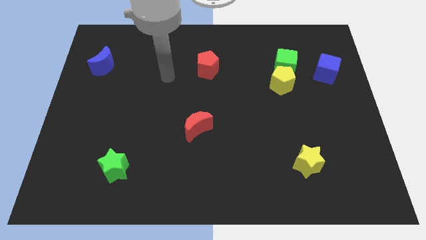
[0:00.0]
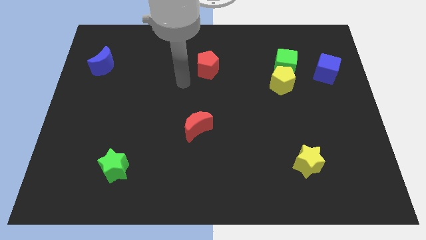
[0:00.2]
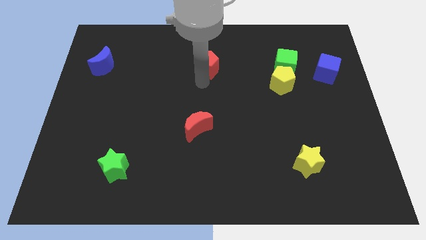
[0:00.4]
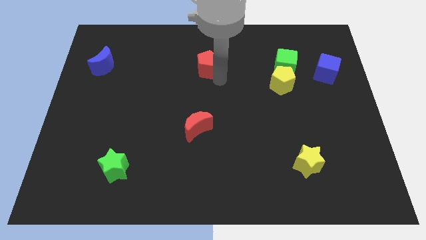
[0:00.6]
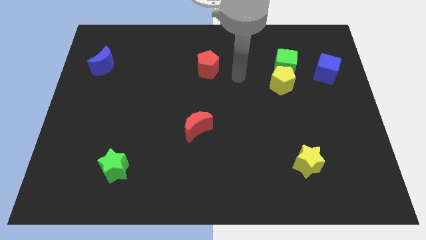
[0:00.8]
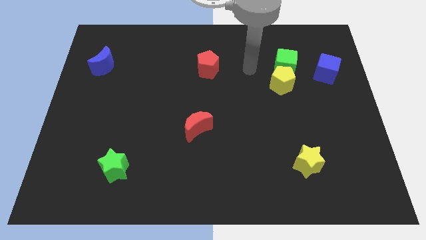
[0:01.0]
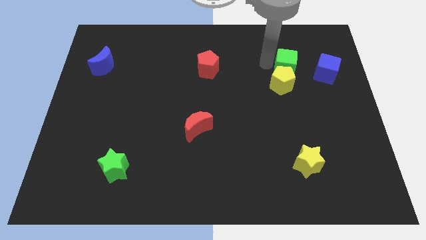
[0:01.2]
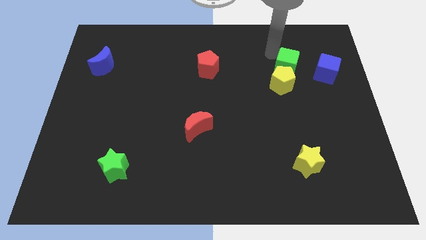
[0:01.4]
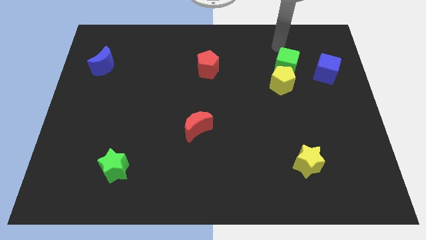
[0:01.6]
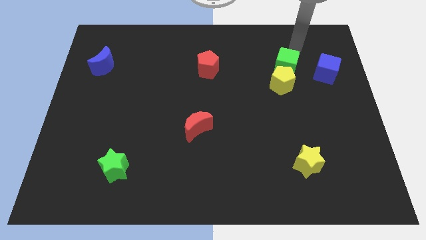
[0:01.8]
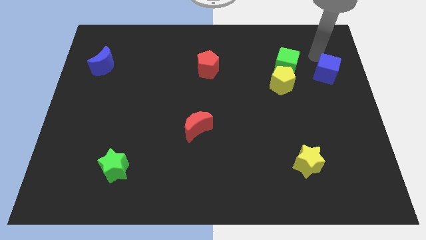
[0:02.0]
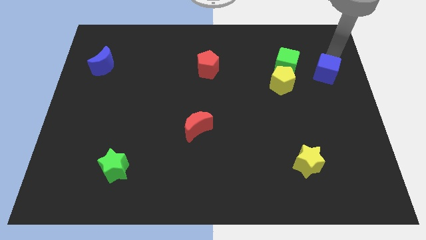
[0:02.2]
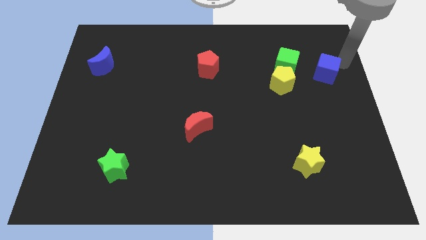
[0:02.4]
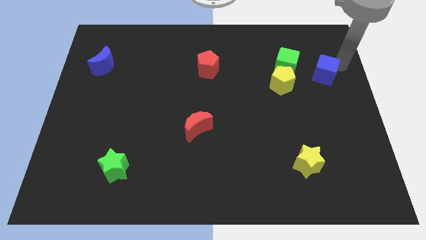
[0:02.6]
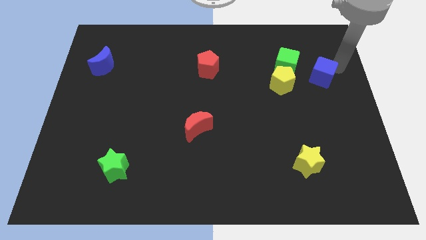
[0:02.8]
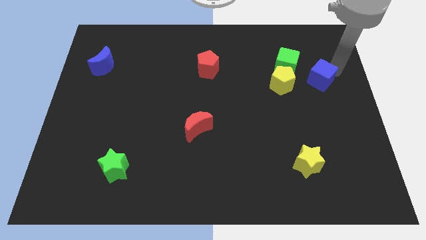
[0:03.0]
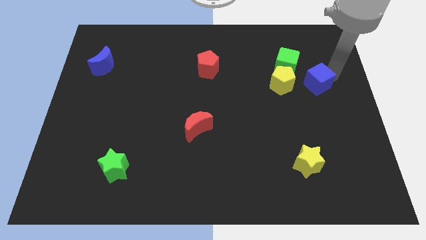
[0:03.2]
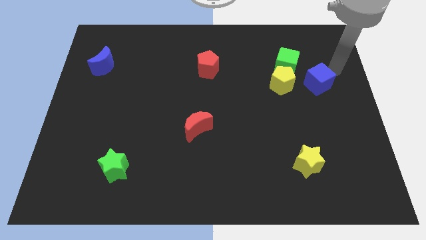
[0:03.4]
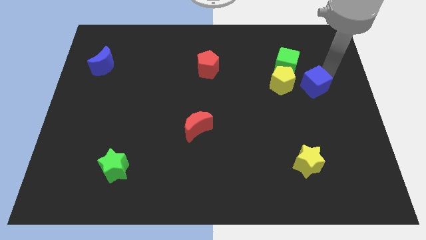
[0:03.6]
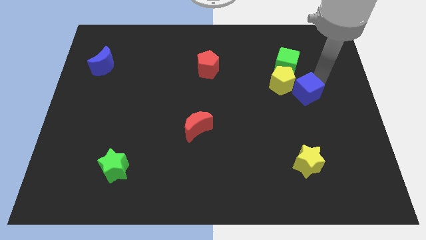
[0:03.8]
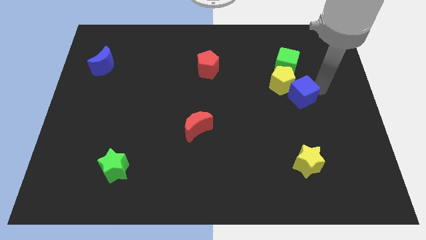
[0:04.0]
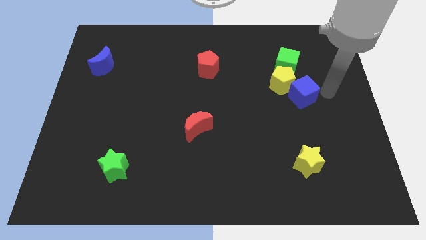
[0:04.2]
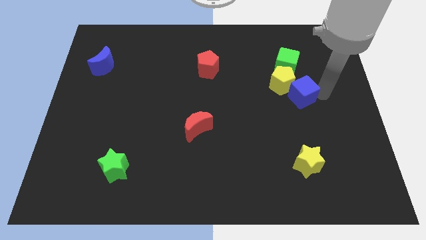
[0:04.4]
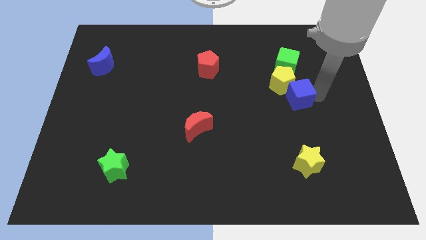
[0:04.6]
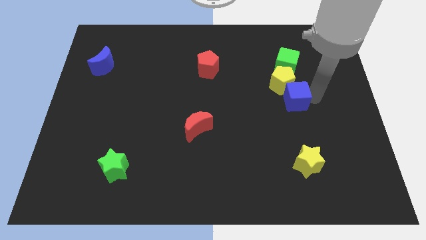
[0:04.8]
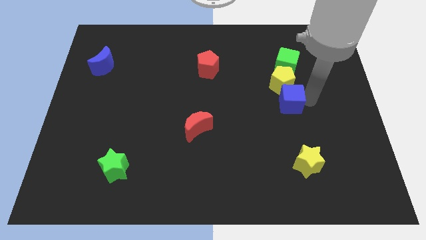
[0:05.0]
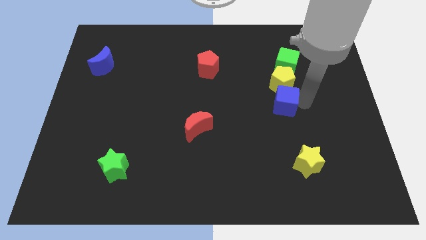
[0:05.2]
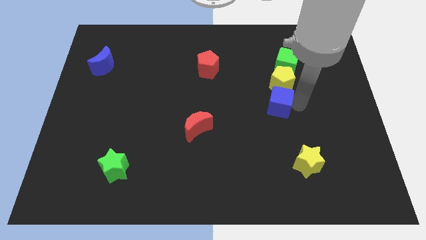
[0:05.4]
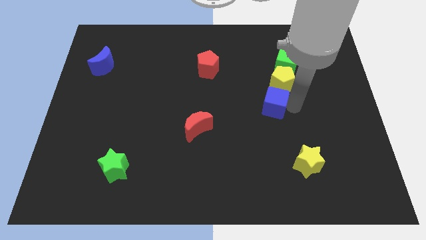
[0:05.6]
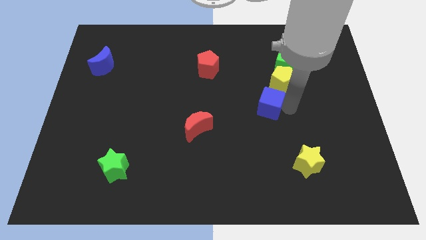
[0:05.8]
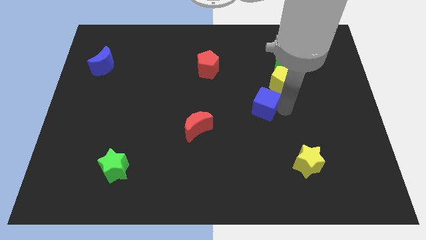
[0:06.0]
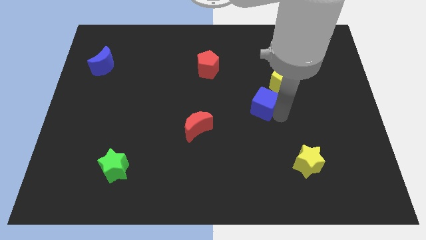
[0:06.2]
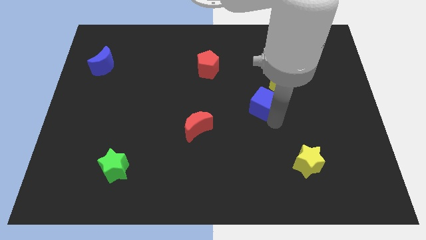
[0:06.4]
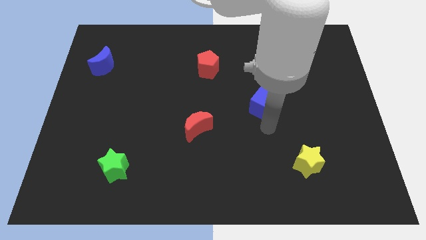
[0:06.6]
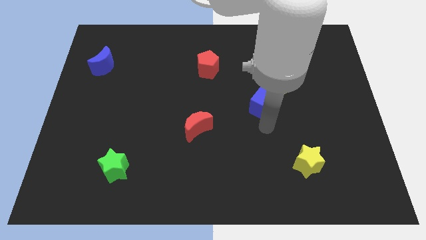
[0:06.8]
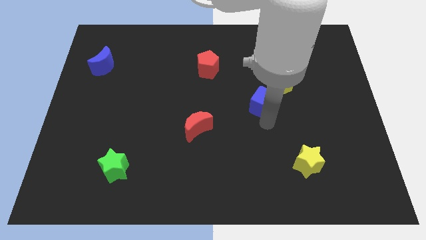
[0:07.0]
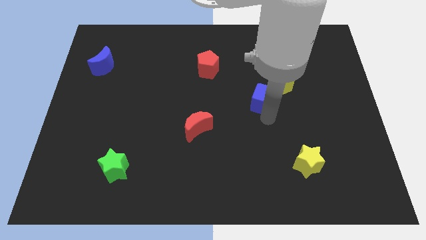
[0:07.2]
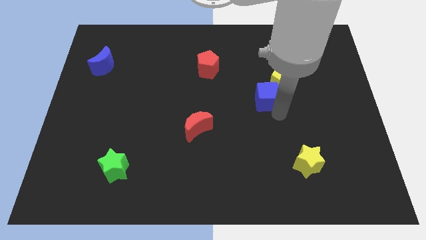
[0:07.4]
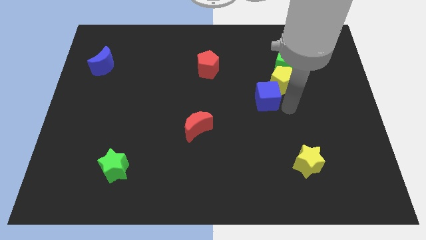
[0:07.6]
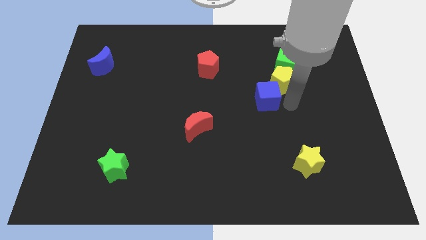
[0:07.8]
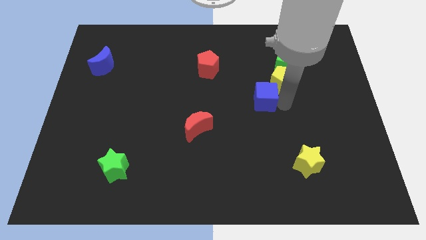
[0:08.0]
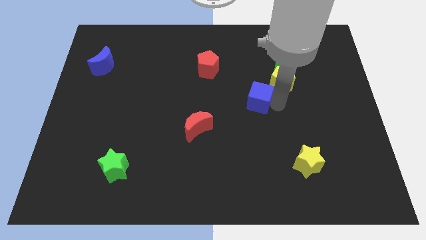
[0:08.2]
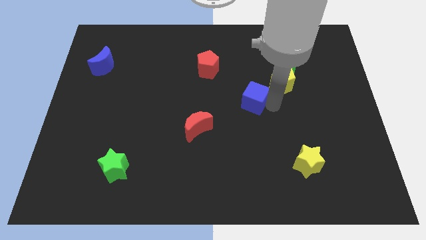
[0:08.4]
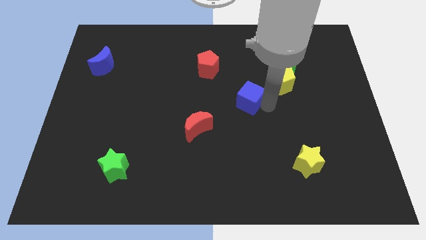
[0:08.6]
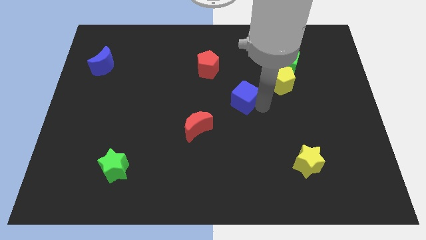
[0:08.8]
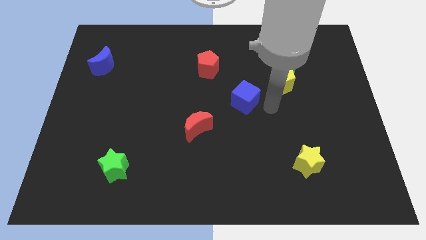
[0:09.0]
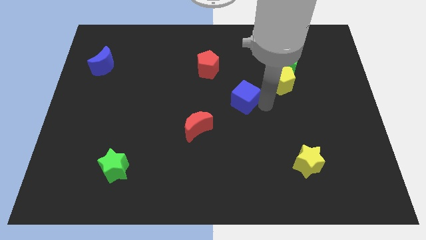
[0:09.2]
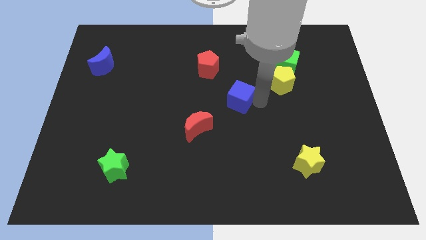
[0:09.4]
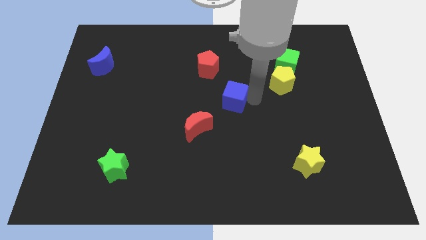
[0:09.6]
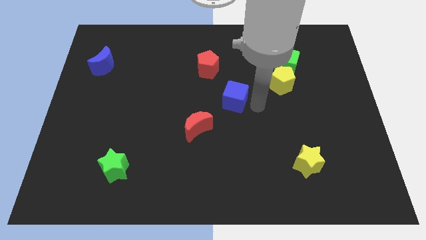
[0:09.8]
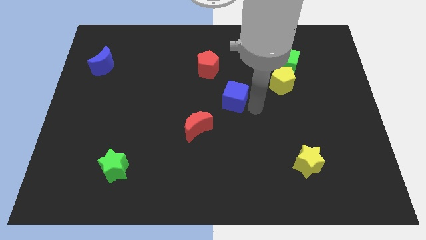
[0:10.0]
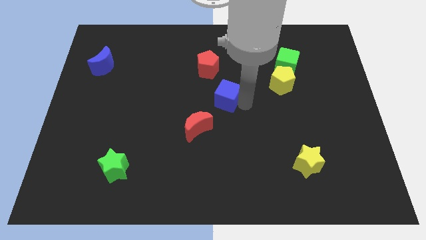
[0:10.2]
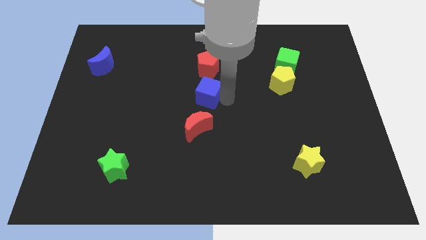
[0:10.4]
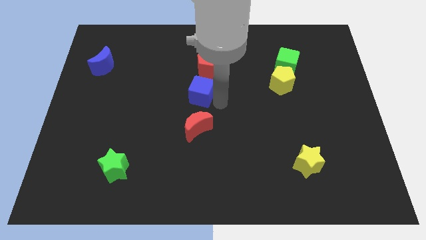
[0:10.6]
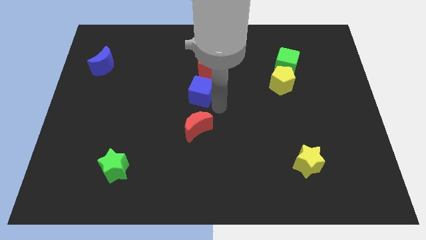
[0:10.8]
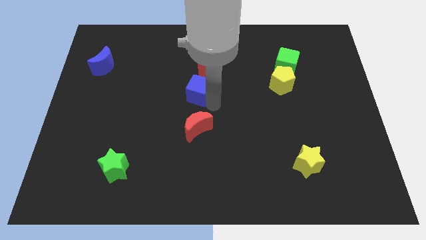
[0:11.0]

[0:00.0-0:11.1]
push the blue cube to the bottom left of the red pentagon

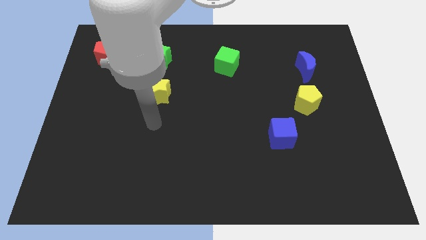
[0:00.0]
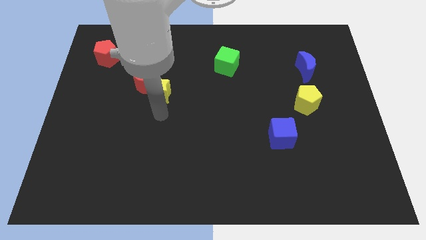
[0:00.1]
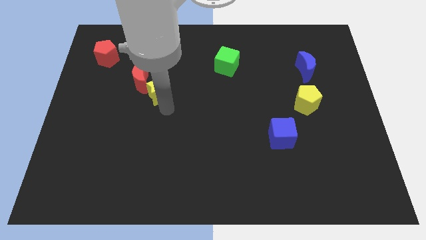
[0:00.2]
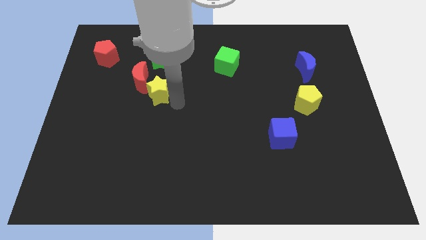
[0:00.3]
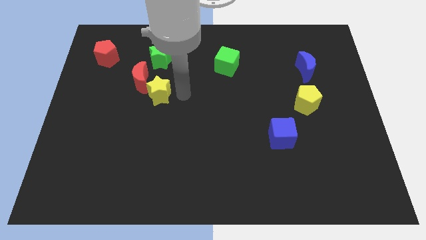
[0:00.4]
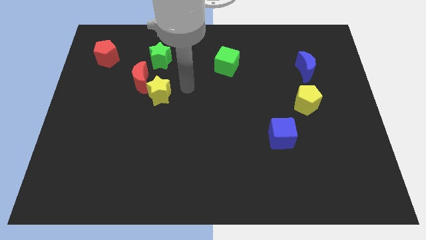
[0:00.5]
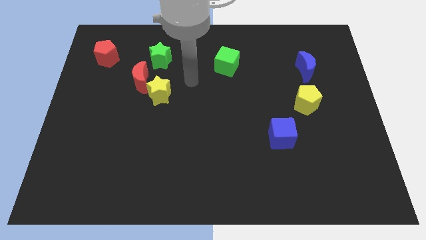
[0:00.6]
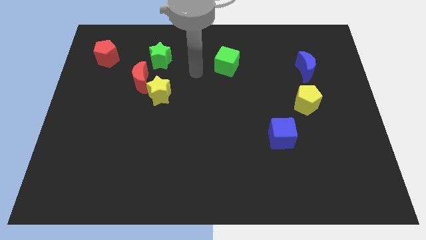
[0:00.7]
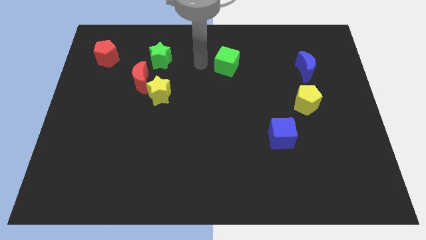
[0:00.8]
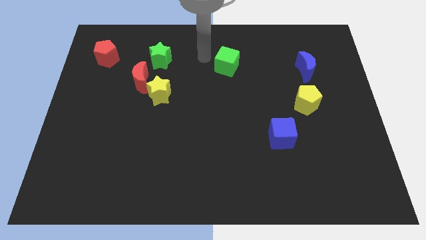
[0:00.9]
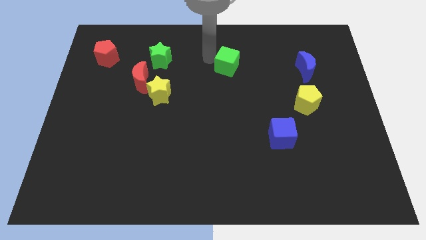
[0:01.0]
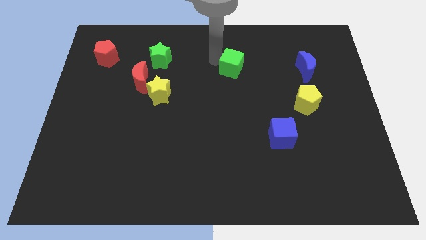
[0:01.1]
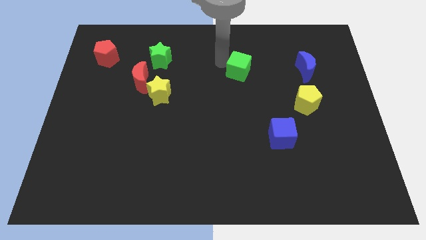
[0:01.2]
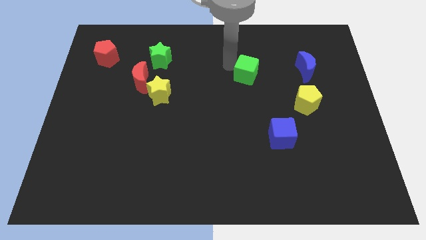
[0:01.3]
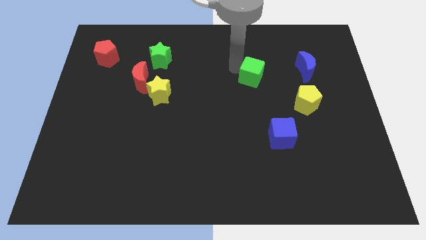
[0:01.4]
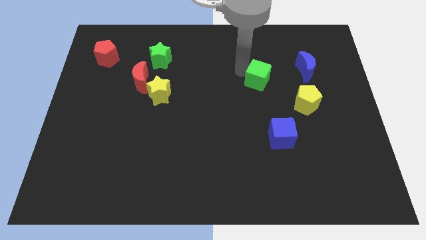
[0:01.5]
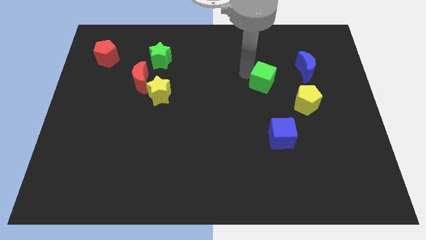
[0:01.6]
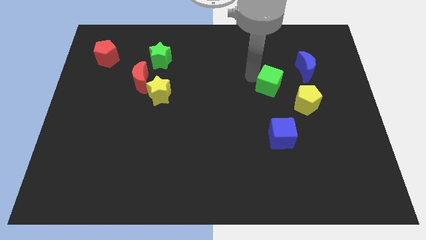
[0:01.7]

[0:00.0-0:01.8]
push the green cube diagonally down and to the left of the blue moon

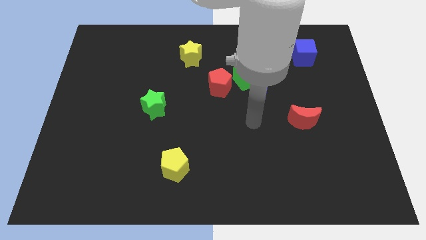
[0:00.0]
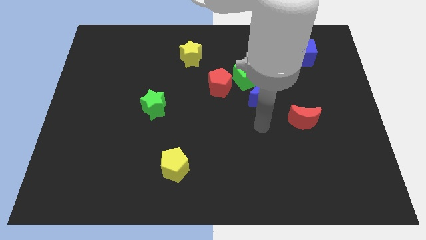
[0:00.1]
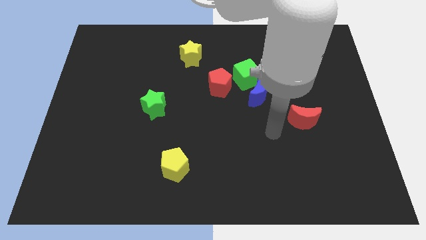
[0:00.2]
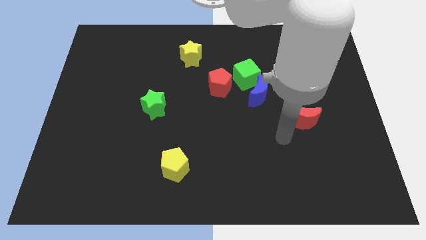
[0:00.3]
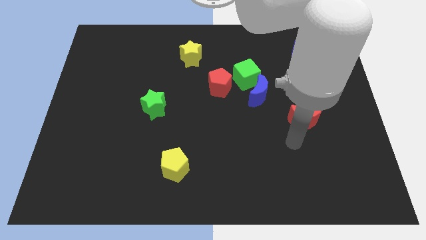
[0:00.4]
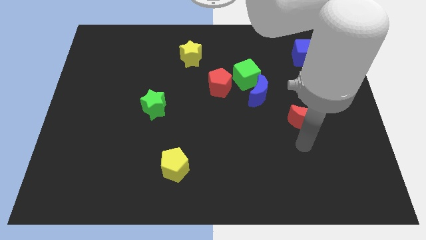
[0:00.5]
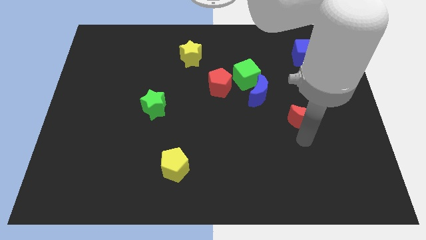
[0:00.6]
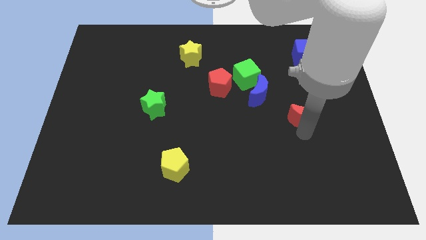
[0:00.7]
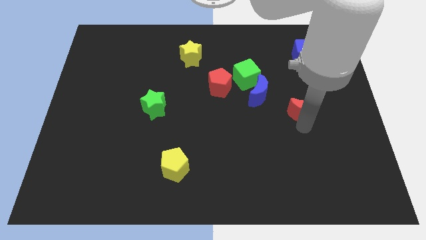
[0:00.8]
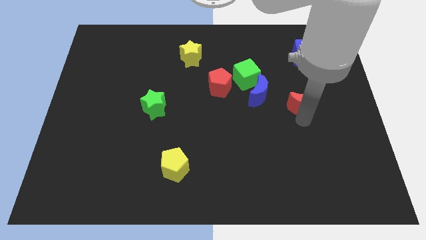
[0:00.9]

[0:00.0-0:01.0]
put the red moon right of the blue moon
